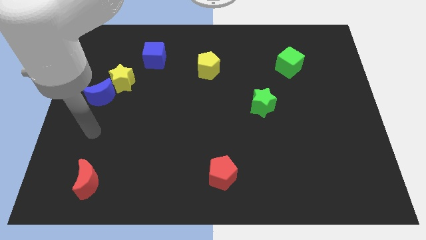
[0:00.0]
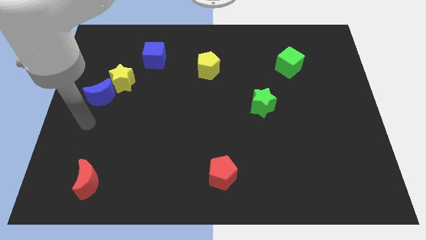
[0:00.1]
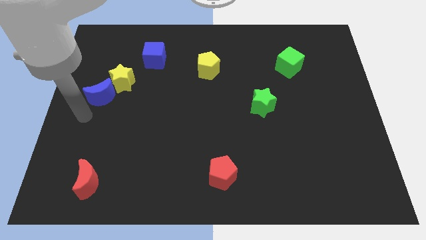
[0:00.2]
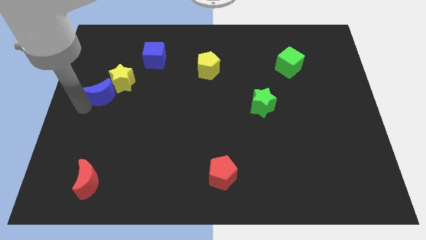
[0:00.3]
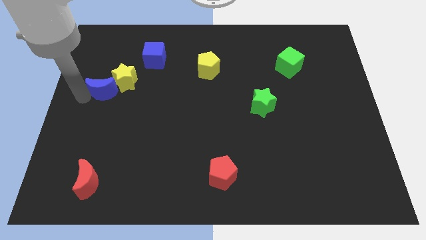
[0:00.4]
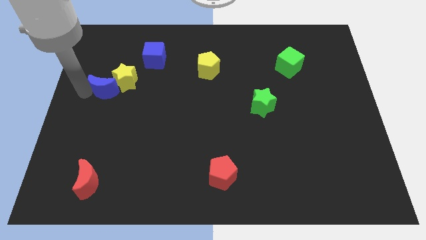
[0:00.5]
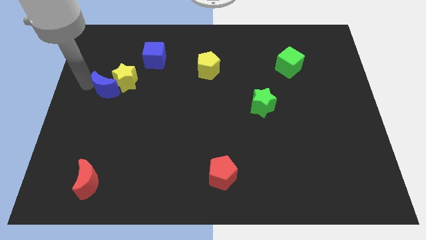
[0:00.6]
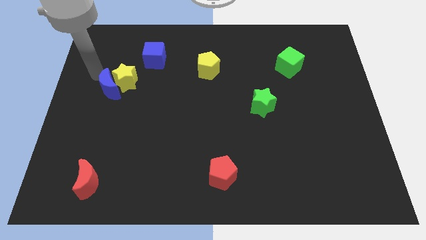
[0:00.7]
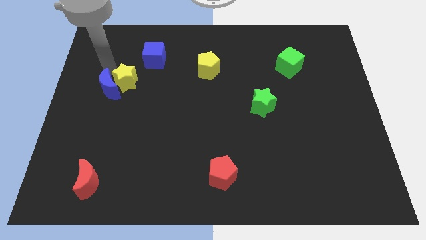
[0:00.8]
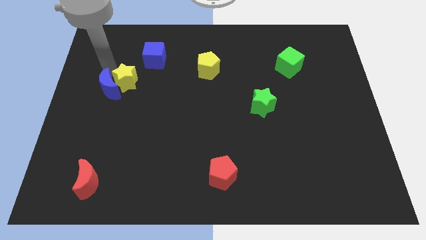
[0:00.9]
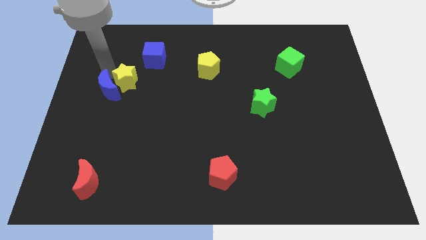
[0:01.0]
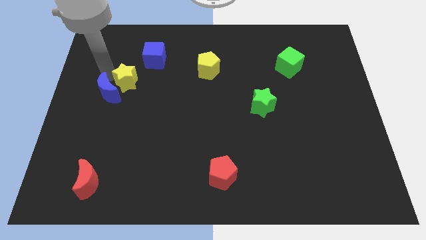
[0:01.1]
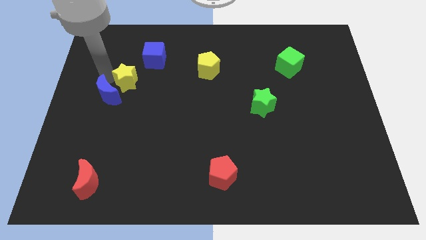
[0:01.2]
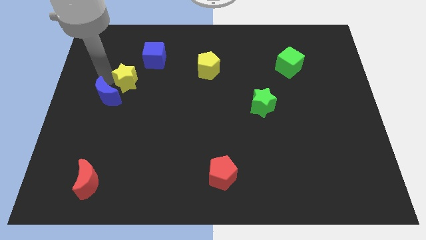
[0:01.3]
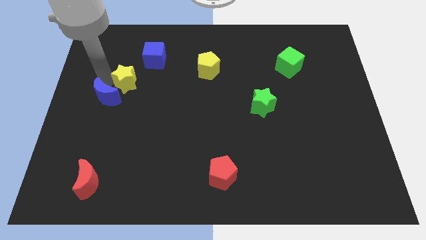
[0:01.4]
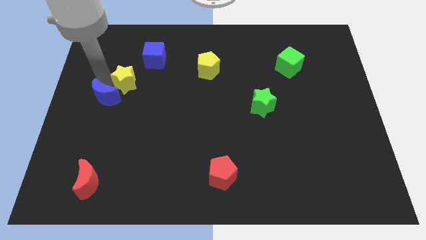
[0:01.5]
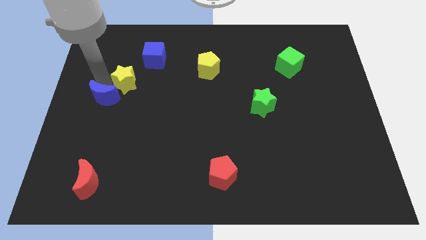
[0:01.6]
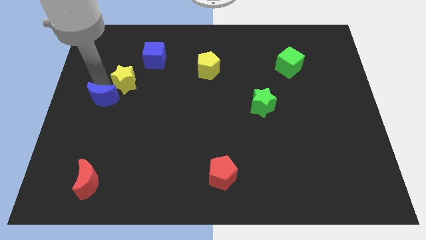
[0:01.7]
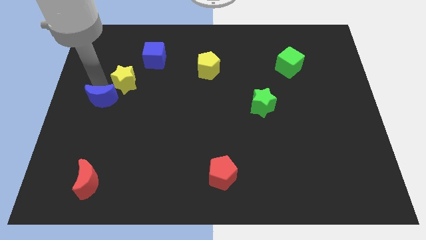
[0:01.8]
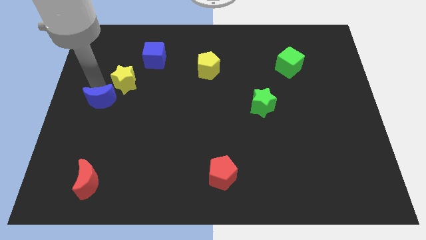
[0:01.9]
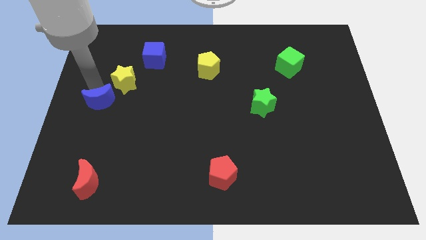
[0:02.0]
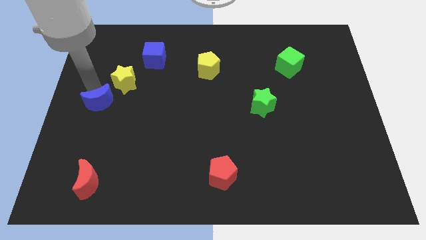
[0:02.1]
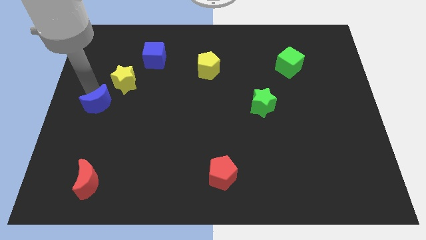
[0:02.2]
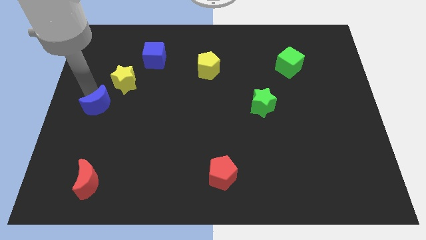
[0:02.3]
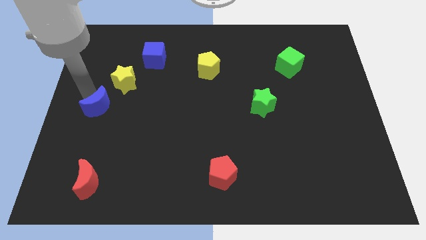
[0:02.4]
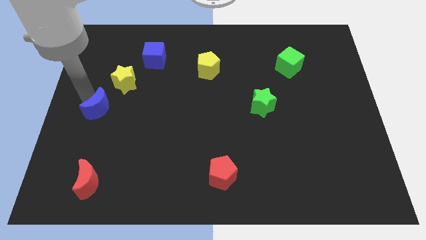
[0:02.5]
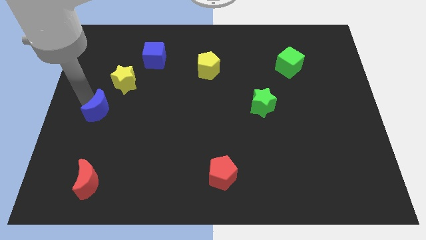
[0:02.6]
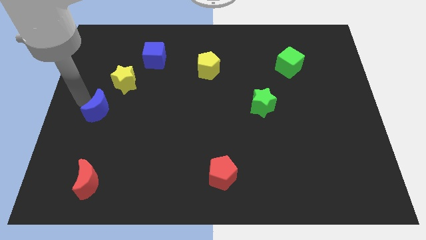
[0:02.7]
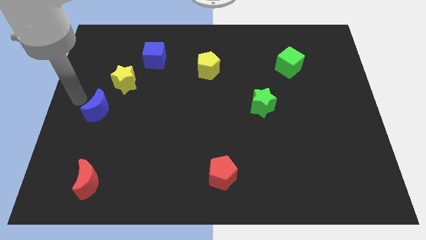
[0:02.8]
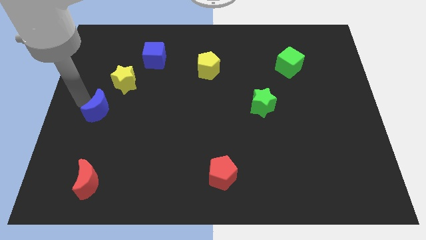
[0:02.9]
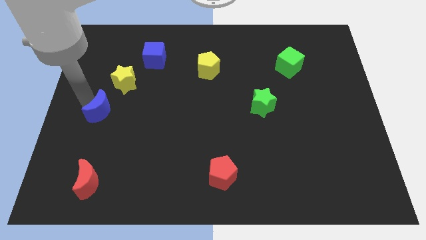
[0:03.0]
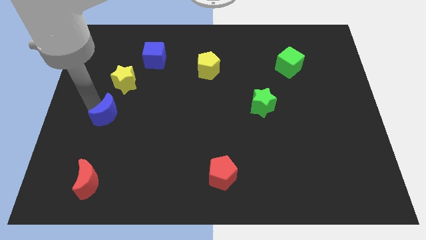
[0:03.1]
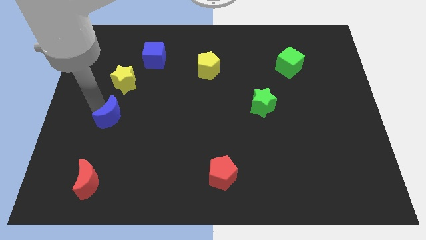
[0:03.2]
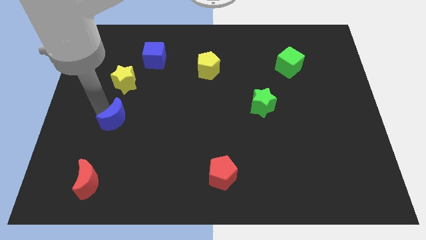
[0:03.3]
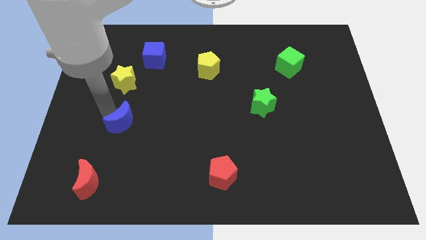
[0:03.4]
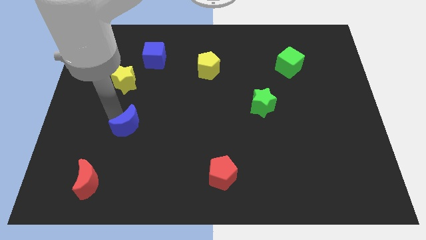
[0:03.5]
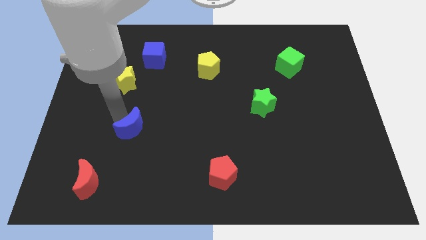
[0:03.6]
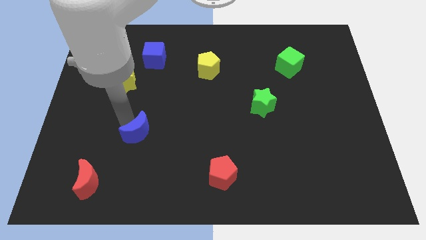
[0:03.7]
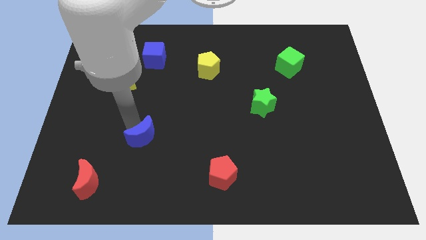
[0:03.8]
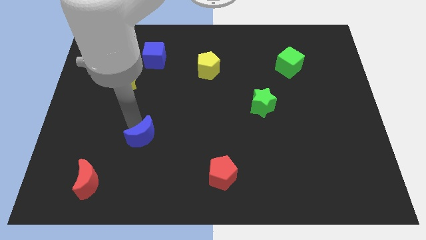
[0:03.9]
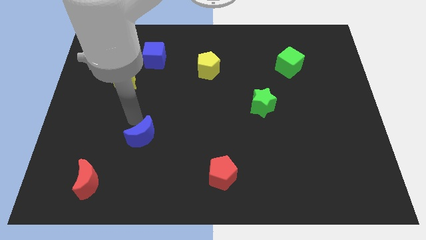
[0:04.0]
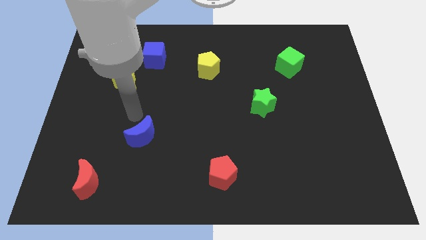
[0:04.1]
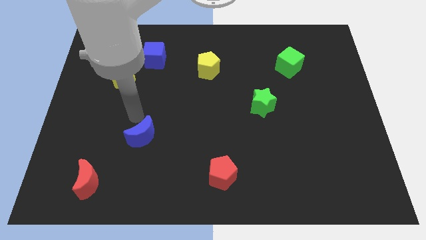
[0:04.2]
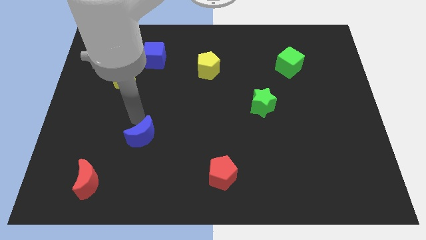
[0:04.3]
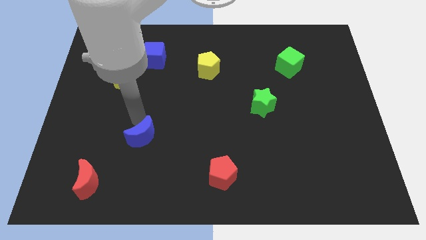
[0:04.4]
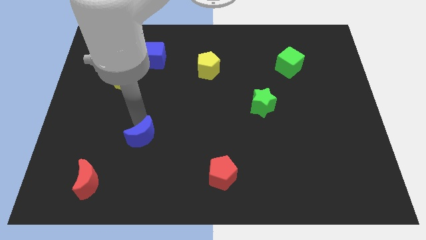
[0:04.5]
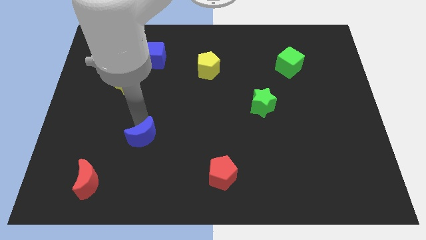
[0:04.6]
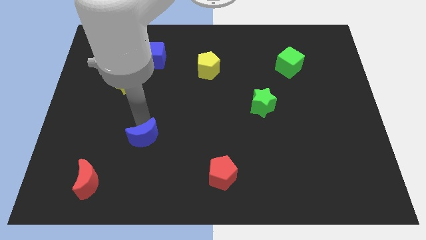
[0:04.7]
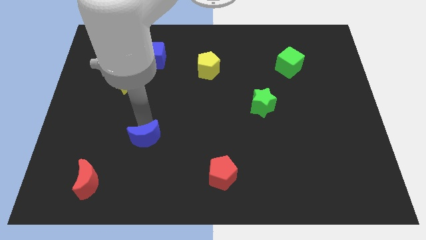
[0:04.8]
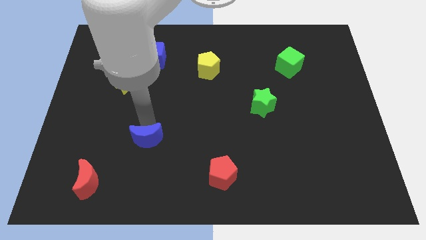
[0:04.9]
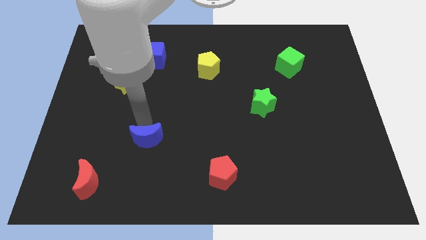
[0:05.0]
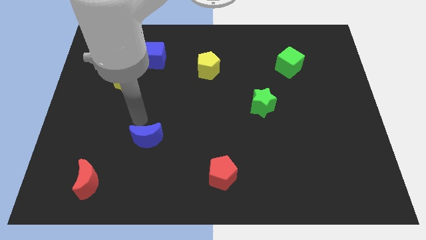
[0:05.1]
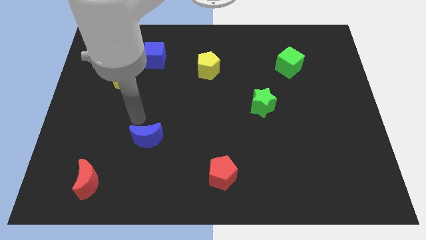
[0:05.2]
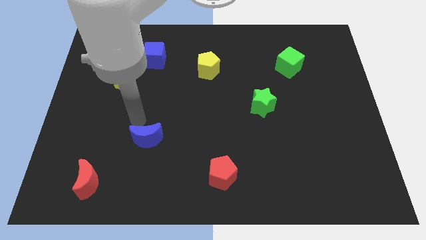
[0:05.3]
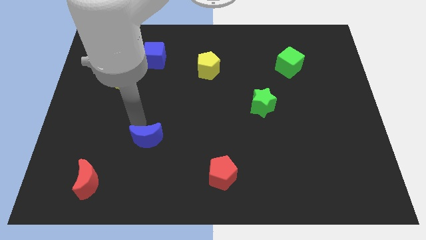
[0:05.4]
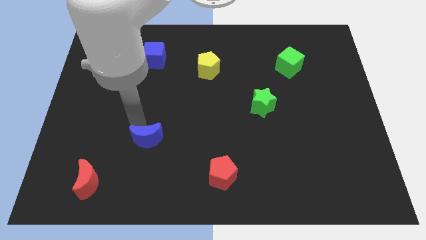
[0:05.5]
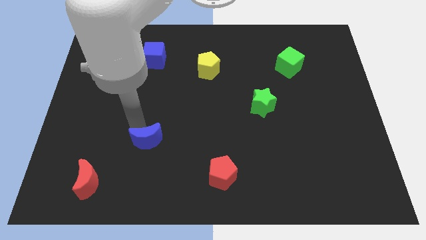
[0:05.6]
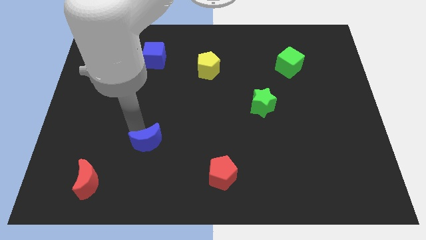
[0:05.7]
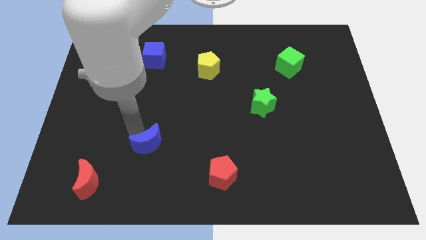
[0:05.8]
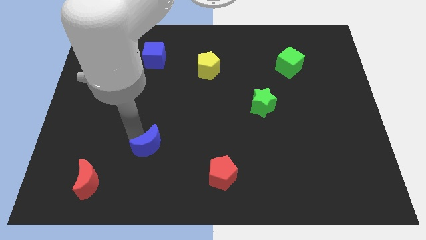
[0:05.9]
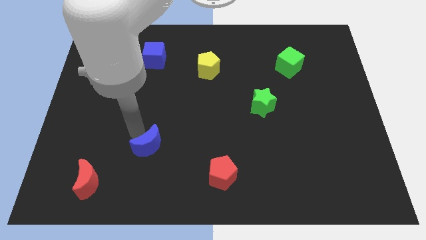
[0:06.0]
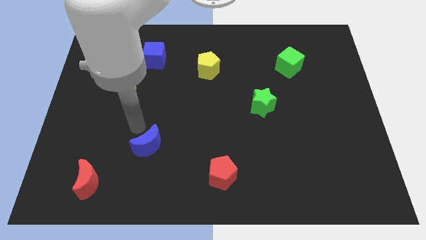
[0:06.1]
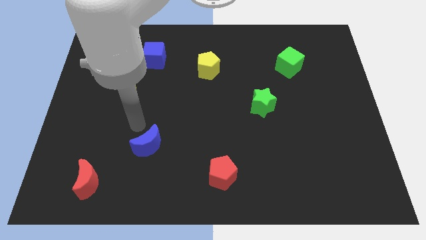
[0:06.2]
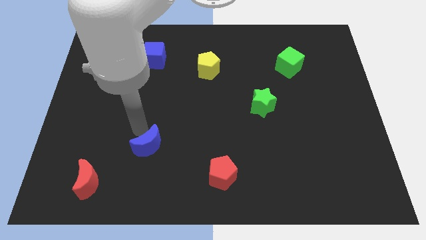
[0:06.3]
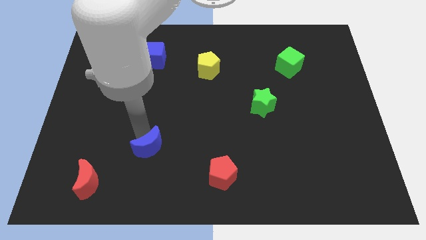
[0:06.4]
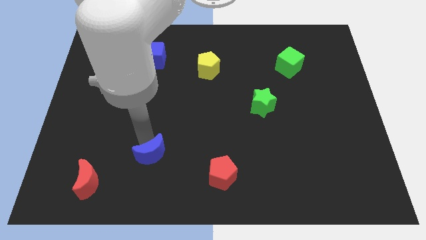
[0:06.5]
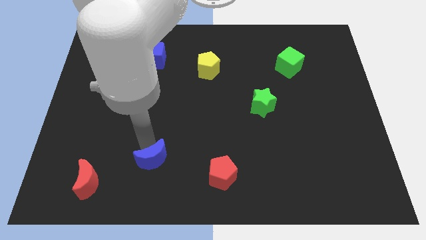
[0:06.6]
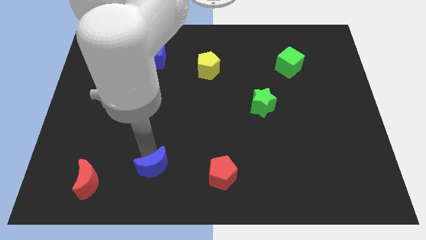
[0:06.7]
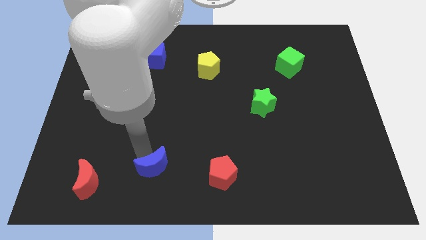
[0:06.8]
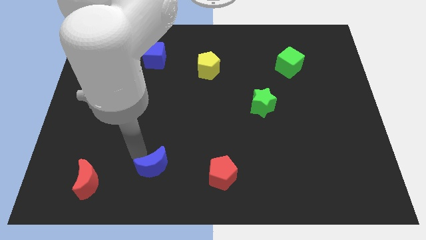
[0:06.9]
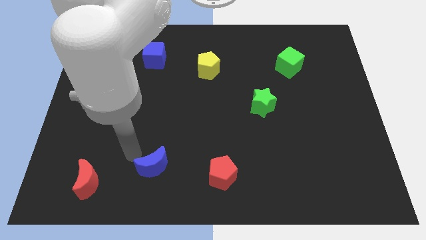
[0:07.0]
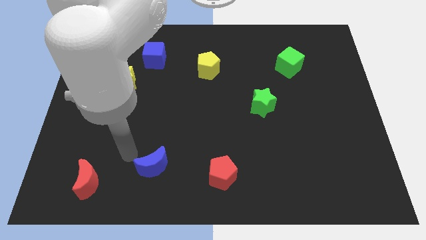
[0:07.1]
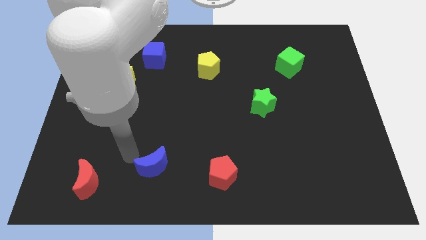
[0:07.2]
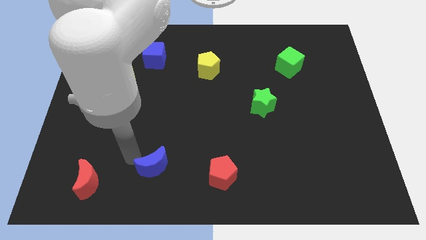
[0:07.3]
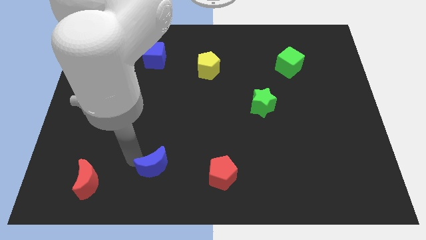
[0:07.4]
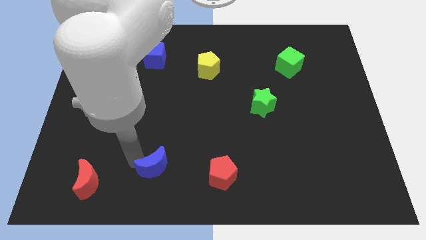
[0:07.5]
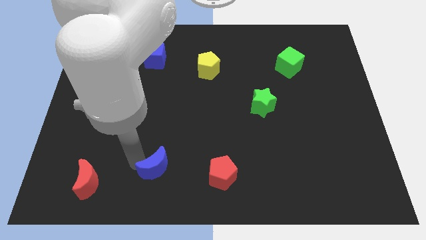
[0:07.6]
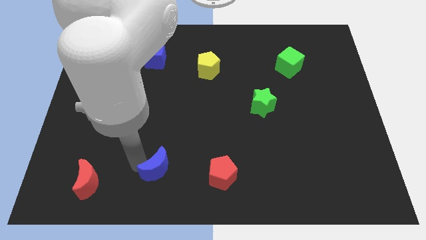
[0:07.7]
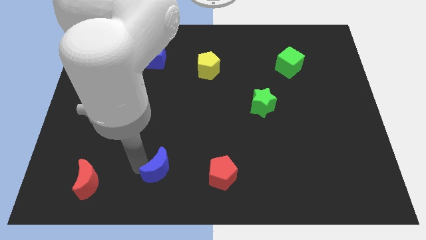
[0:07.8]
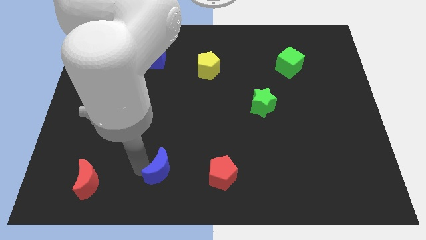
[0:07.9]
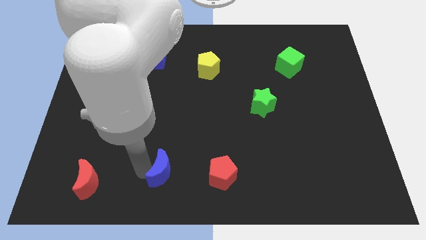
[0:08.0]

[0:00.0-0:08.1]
move the blue moon to the bottom
